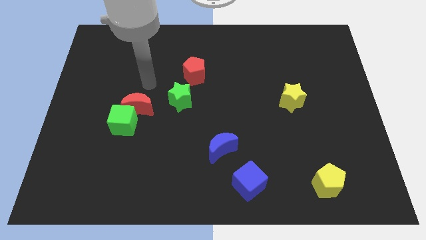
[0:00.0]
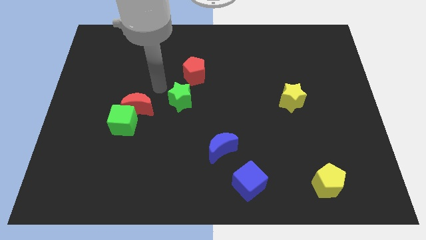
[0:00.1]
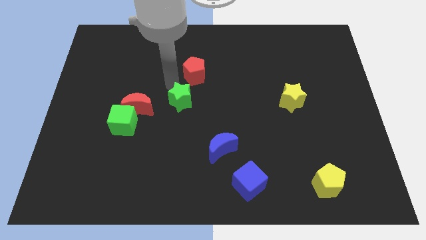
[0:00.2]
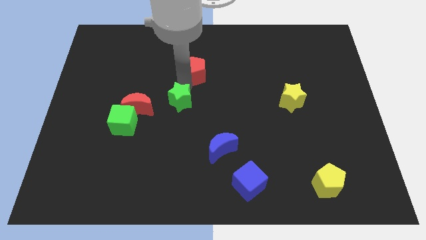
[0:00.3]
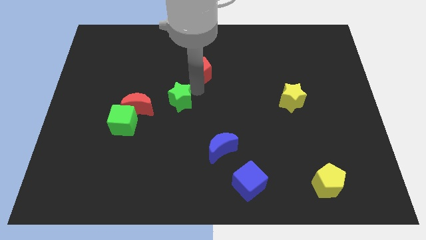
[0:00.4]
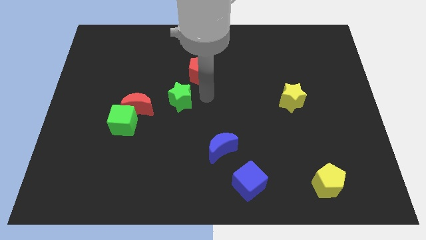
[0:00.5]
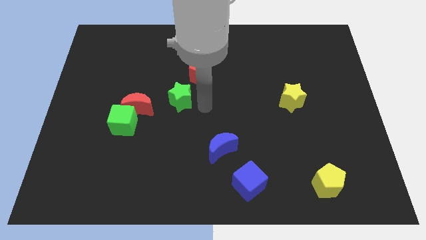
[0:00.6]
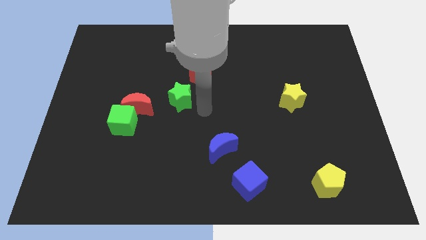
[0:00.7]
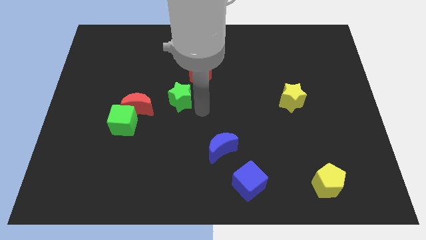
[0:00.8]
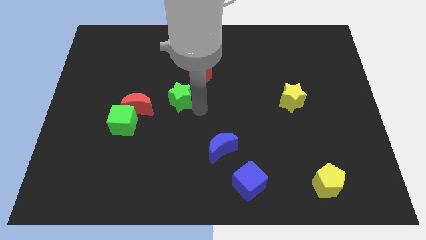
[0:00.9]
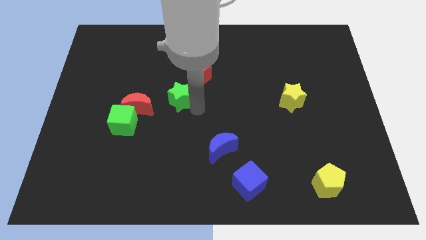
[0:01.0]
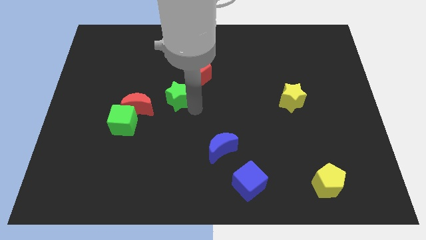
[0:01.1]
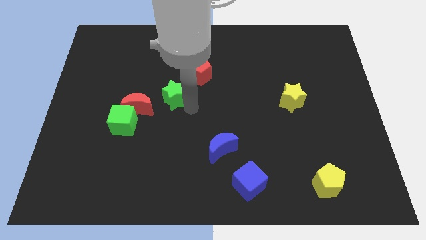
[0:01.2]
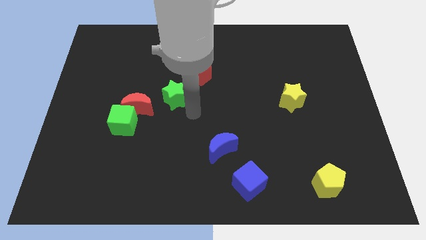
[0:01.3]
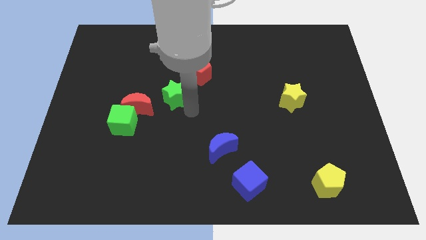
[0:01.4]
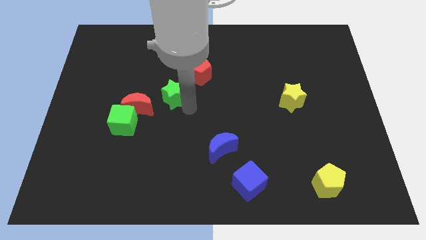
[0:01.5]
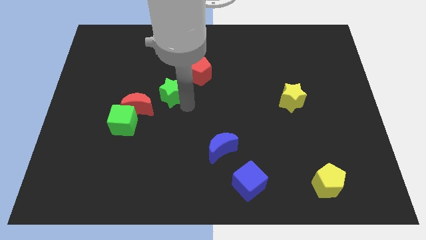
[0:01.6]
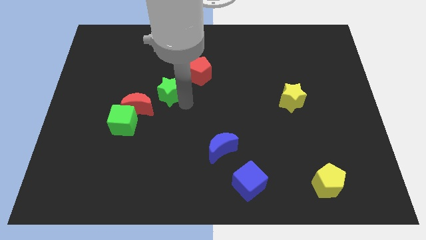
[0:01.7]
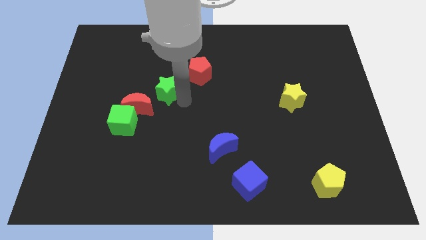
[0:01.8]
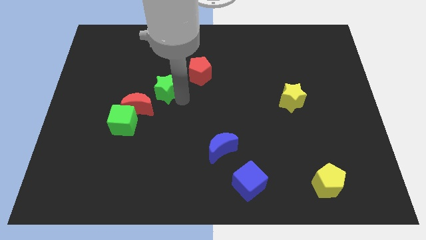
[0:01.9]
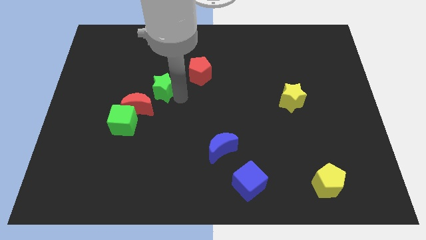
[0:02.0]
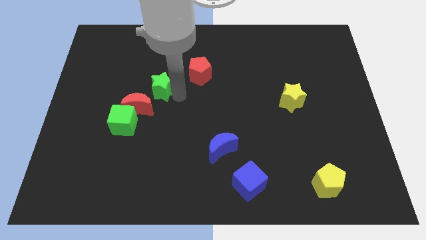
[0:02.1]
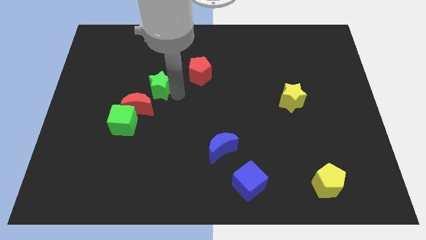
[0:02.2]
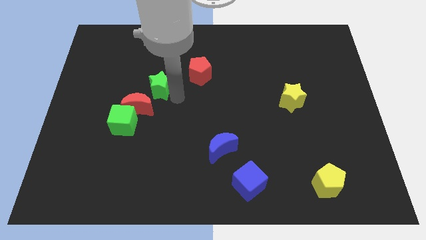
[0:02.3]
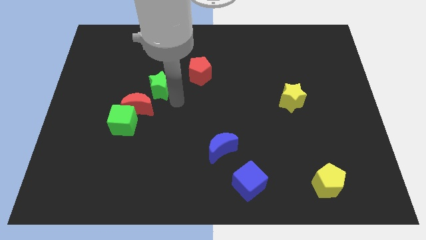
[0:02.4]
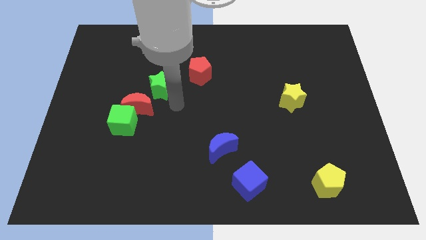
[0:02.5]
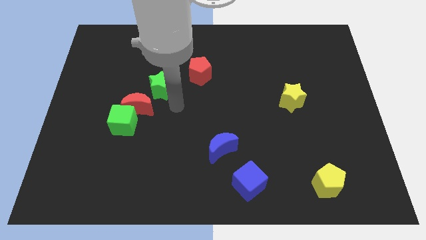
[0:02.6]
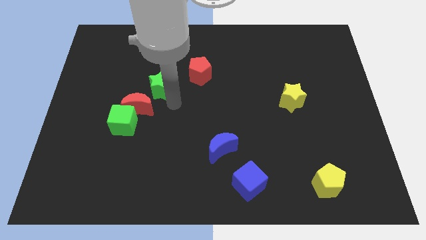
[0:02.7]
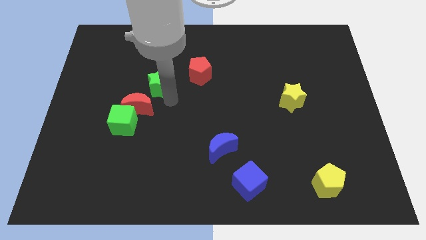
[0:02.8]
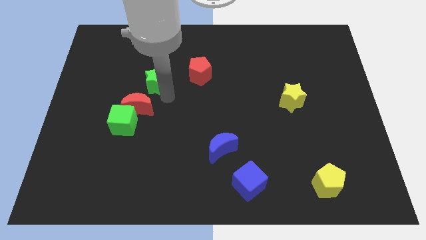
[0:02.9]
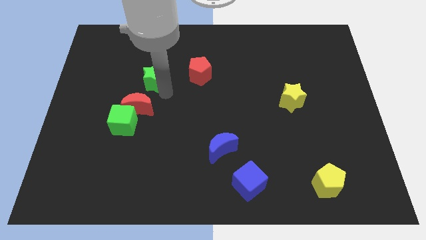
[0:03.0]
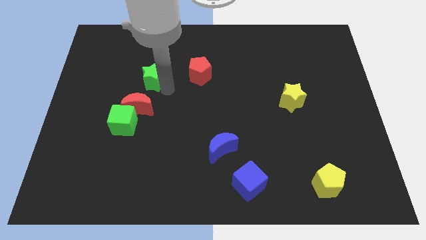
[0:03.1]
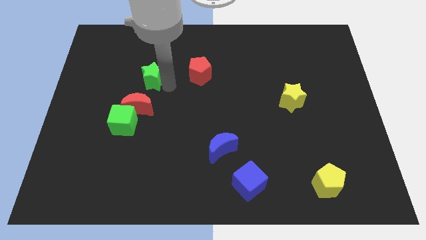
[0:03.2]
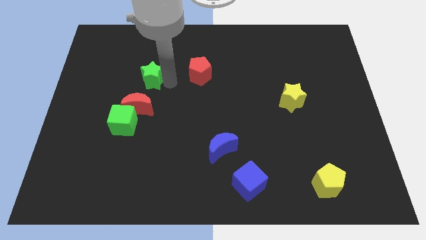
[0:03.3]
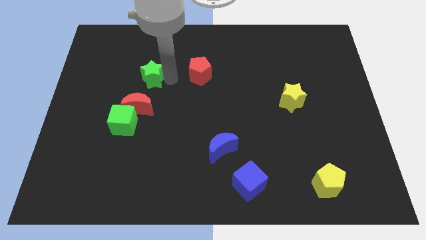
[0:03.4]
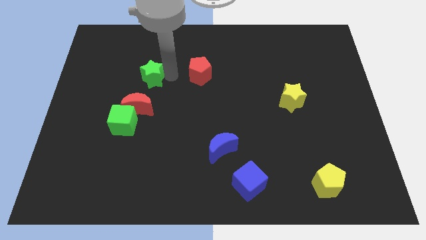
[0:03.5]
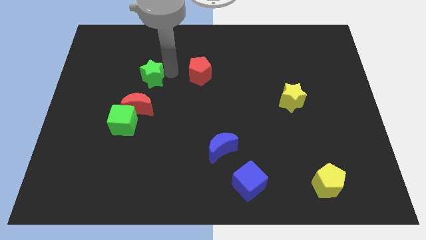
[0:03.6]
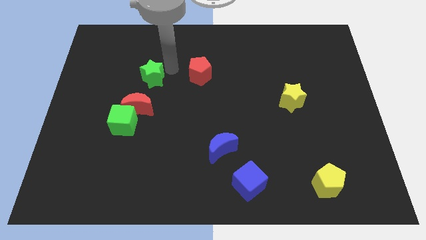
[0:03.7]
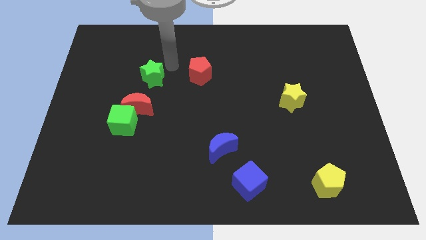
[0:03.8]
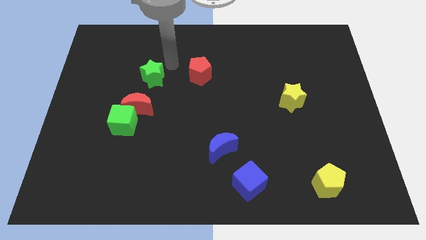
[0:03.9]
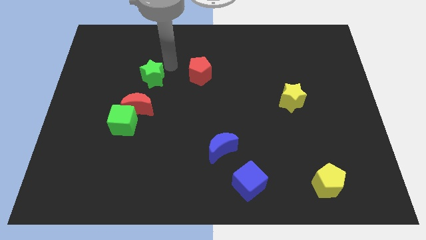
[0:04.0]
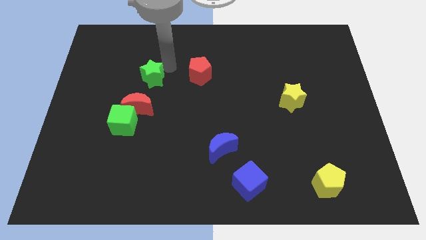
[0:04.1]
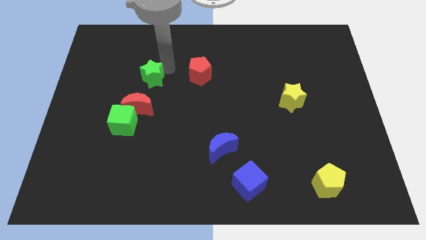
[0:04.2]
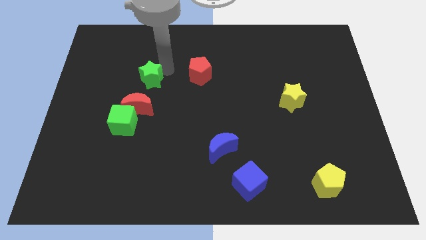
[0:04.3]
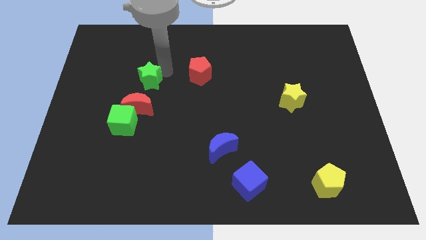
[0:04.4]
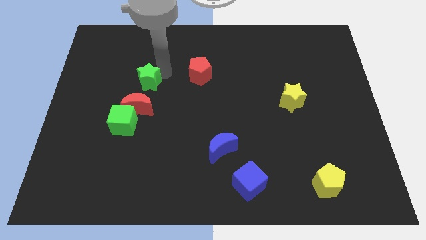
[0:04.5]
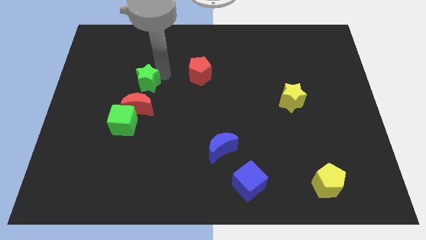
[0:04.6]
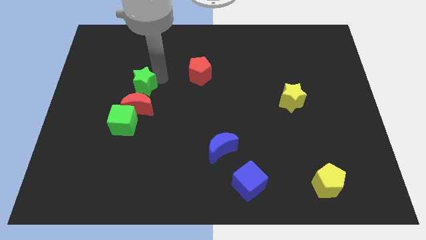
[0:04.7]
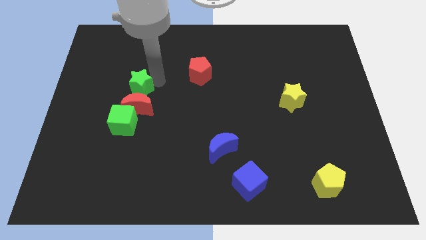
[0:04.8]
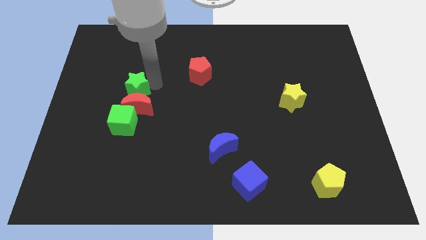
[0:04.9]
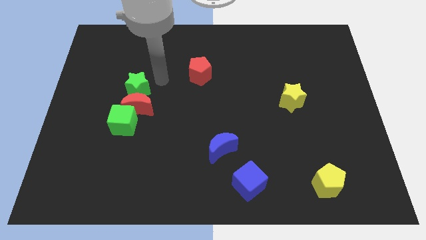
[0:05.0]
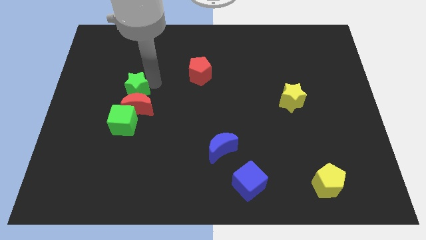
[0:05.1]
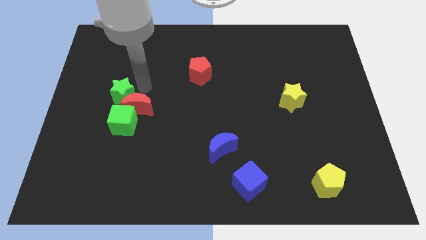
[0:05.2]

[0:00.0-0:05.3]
push the green star left of the red moon

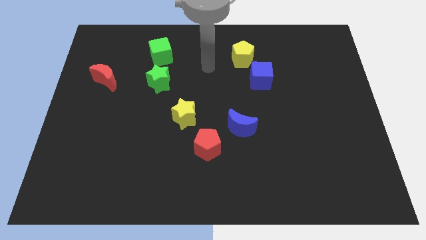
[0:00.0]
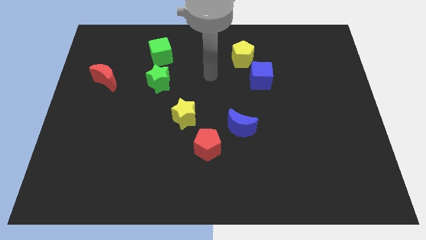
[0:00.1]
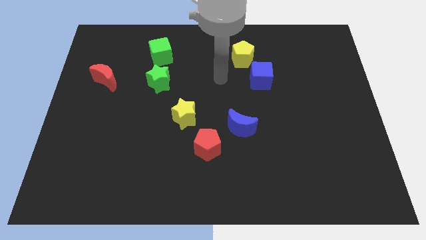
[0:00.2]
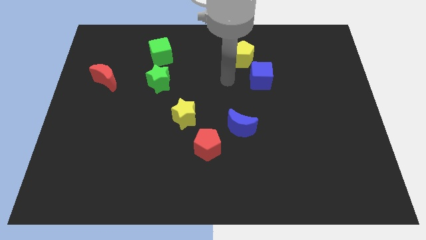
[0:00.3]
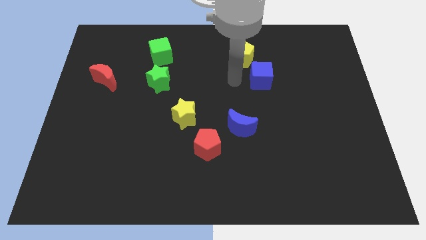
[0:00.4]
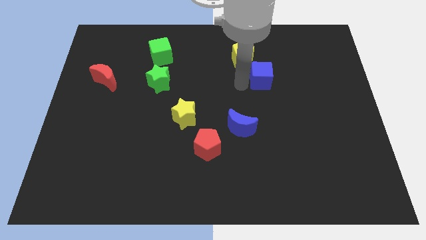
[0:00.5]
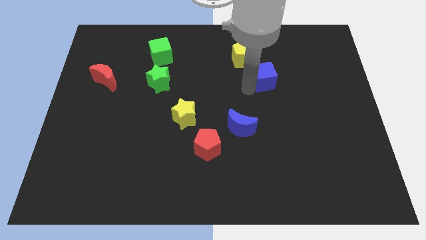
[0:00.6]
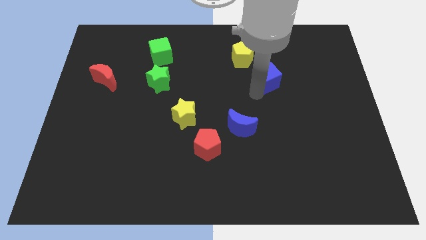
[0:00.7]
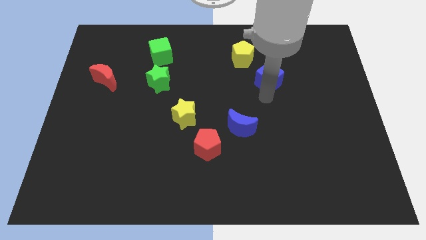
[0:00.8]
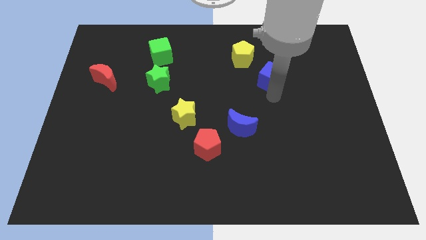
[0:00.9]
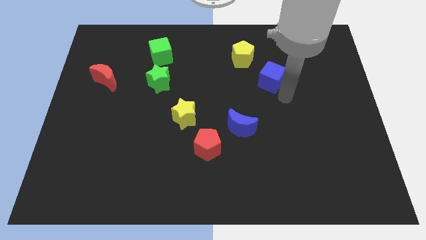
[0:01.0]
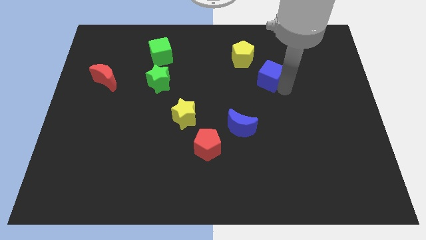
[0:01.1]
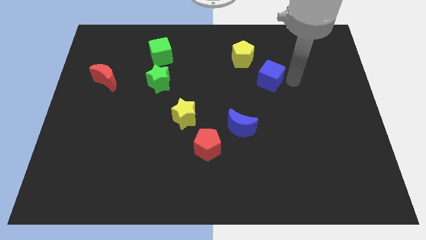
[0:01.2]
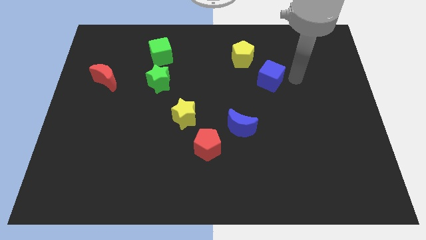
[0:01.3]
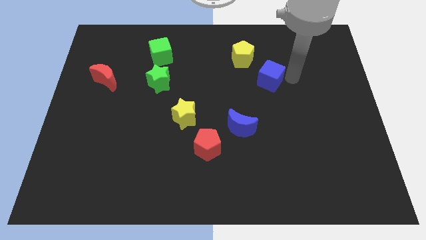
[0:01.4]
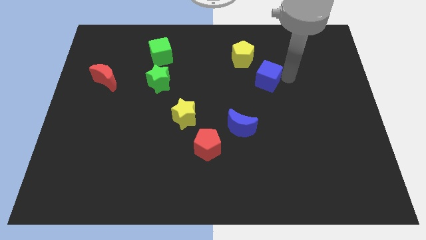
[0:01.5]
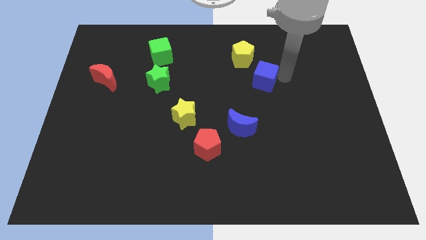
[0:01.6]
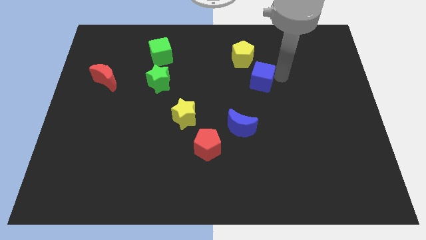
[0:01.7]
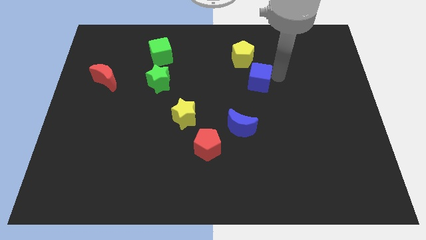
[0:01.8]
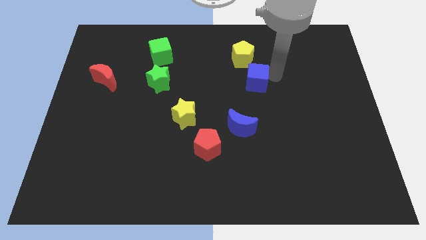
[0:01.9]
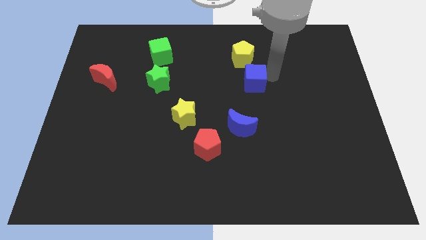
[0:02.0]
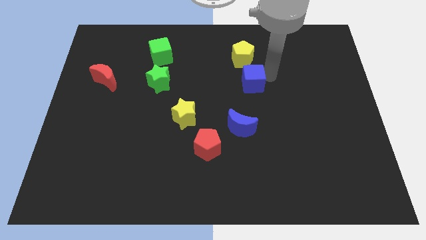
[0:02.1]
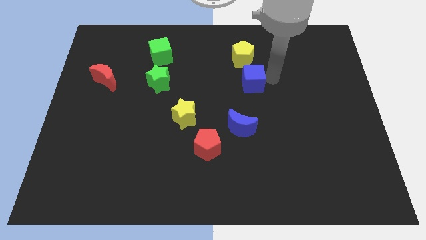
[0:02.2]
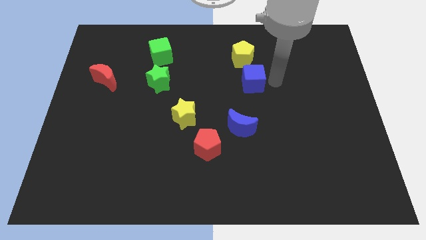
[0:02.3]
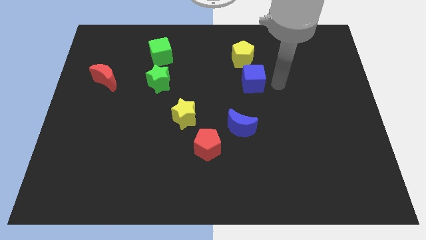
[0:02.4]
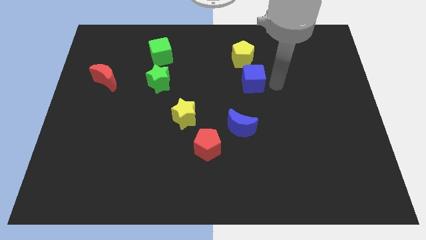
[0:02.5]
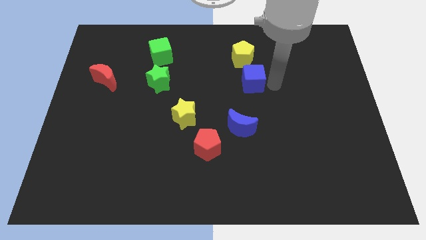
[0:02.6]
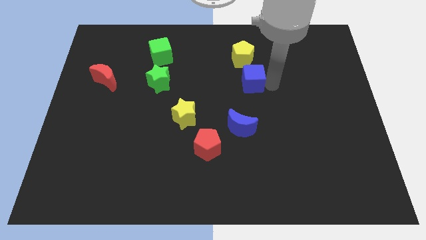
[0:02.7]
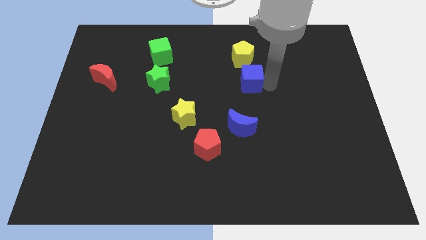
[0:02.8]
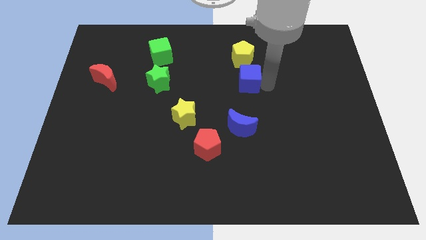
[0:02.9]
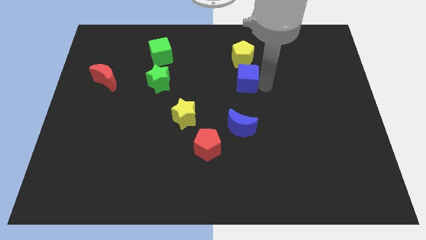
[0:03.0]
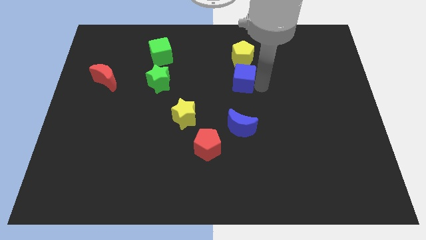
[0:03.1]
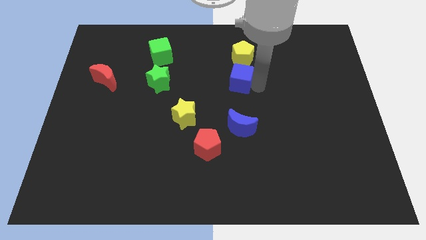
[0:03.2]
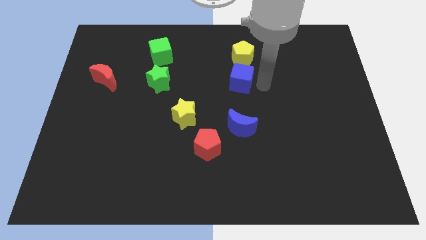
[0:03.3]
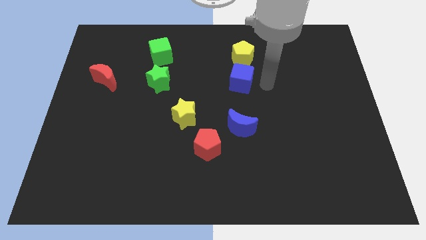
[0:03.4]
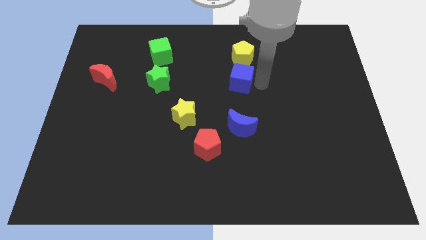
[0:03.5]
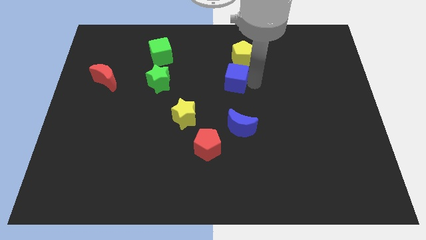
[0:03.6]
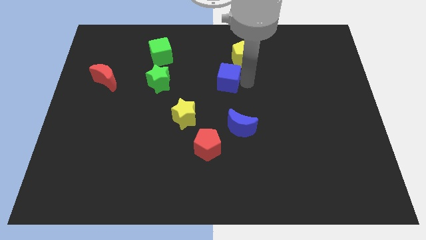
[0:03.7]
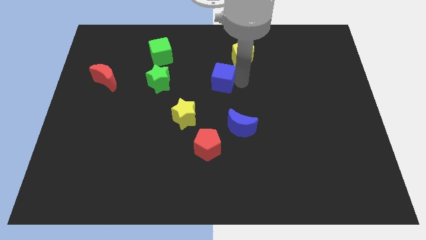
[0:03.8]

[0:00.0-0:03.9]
move the blue cube just right of the green star
